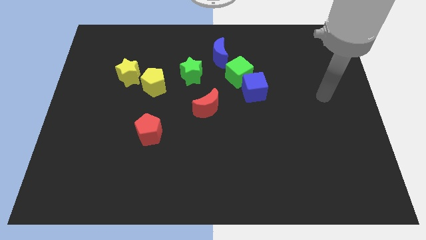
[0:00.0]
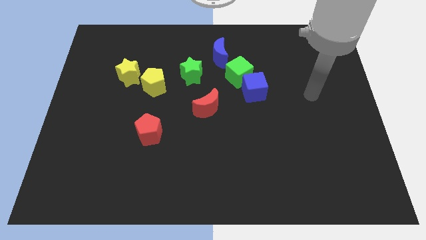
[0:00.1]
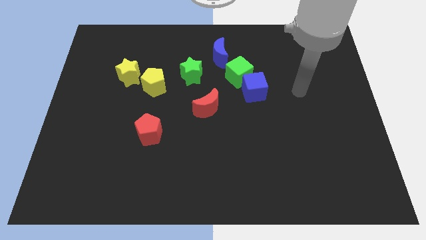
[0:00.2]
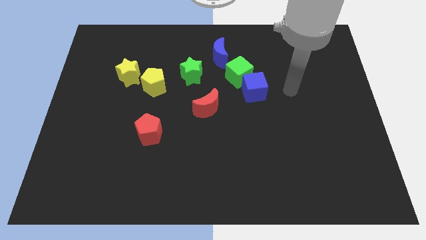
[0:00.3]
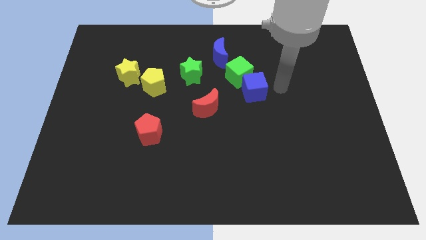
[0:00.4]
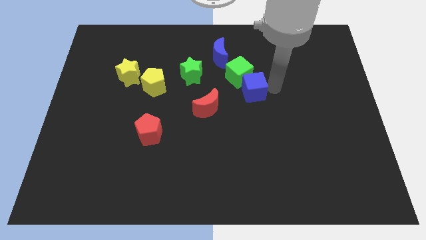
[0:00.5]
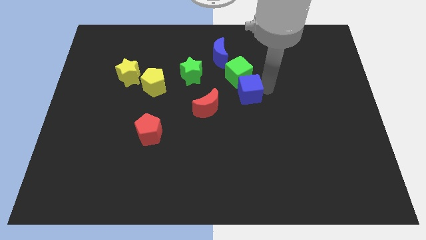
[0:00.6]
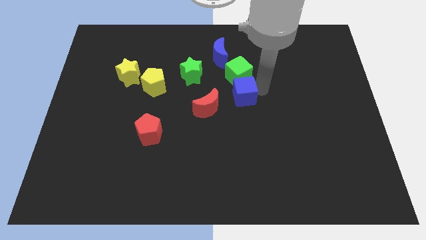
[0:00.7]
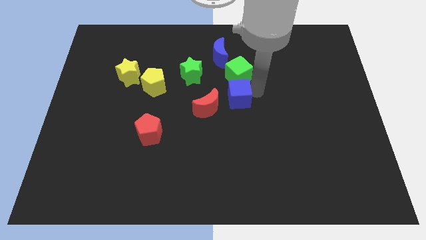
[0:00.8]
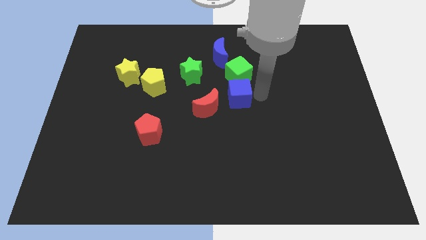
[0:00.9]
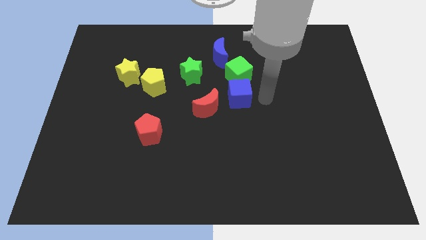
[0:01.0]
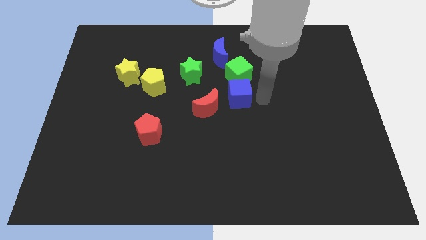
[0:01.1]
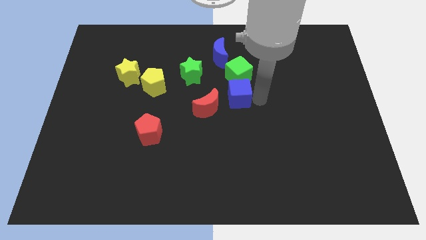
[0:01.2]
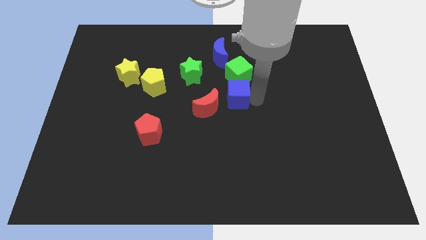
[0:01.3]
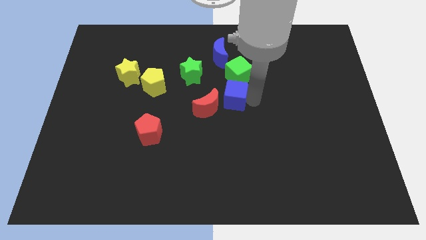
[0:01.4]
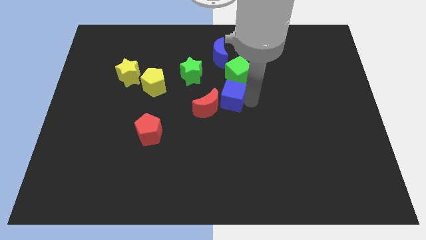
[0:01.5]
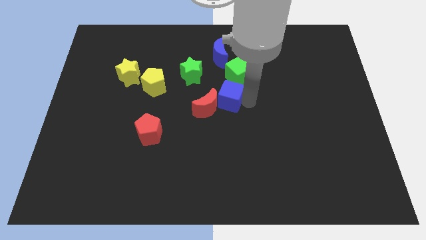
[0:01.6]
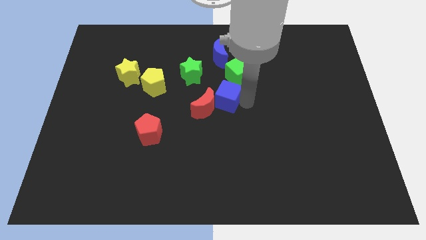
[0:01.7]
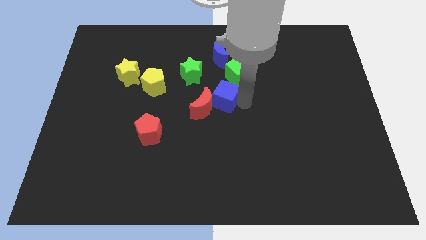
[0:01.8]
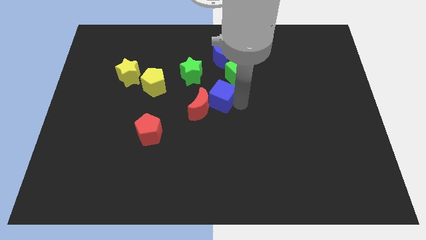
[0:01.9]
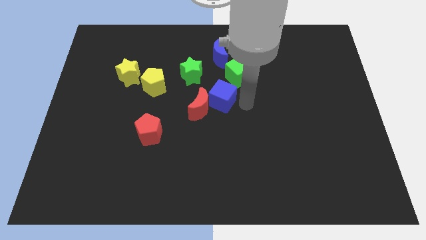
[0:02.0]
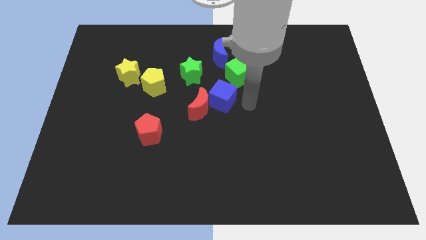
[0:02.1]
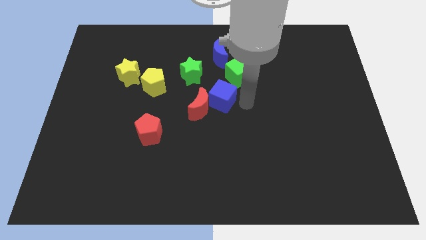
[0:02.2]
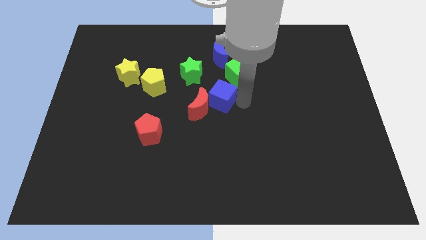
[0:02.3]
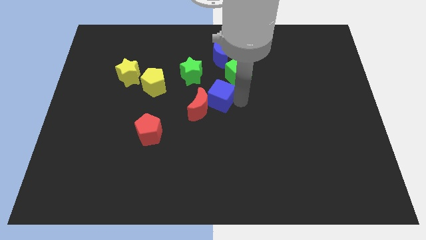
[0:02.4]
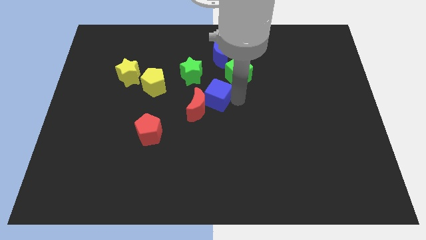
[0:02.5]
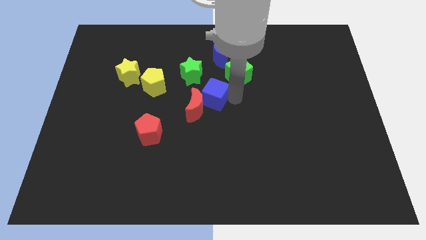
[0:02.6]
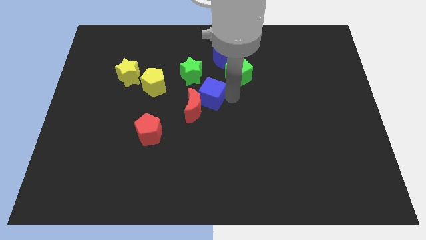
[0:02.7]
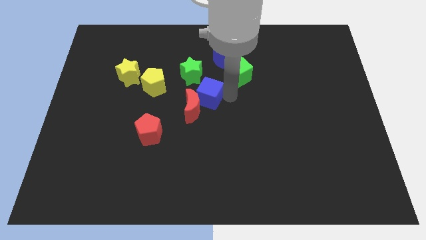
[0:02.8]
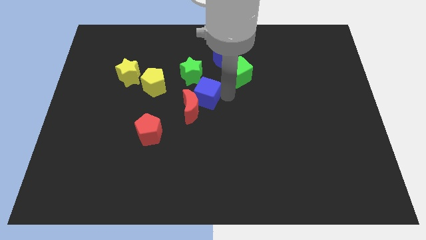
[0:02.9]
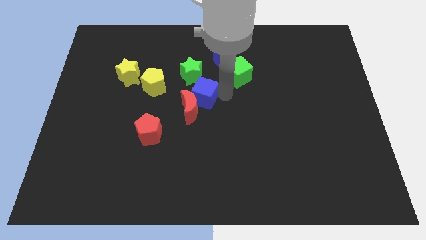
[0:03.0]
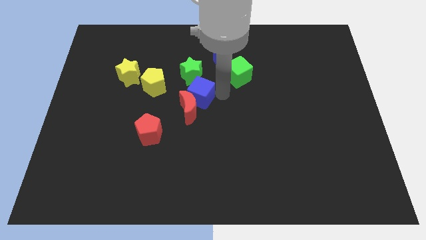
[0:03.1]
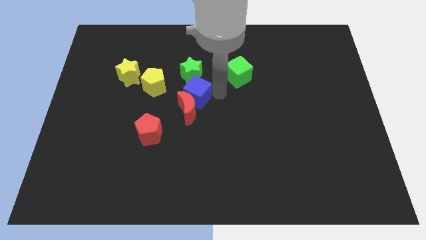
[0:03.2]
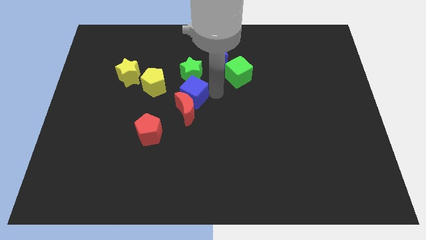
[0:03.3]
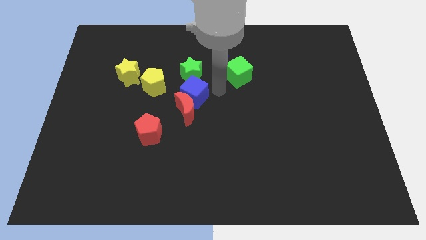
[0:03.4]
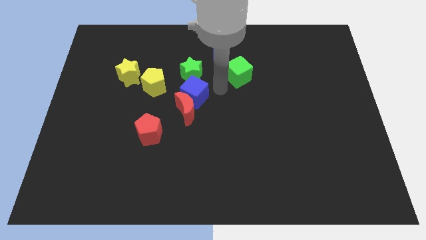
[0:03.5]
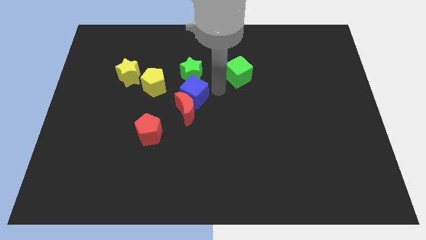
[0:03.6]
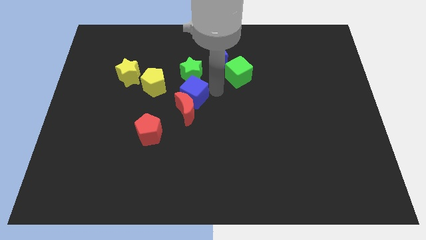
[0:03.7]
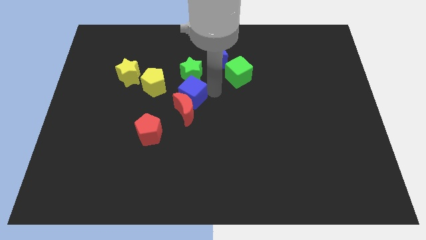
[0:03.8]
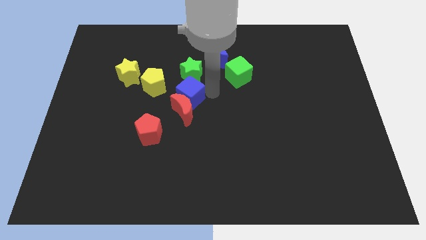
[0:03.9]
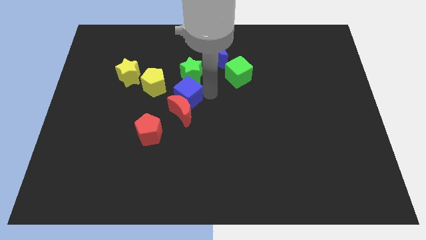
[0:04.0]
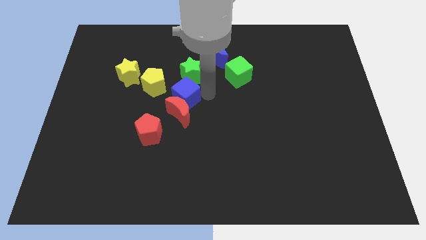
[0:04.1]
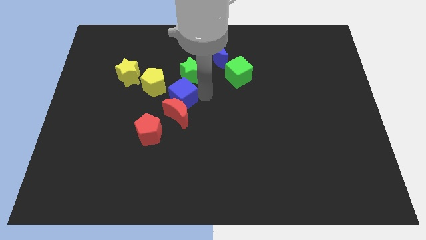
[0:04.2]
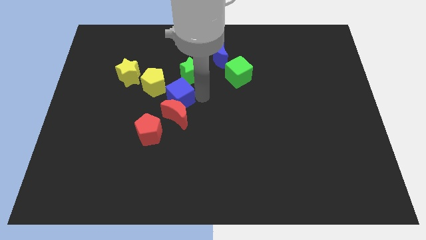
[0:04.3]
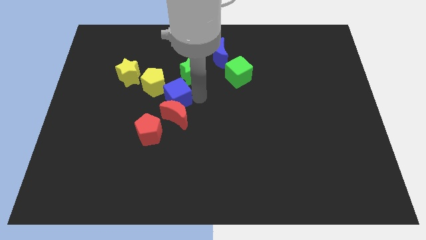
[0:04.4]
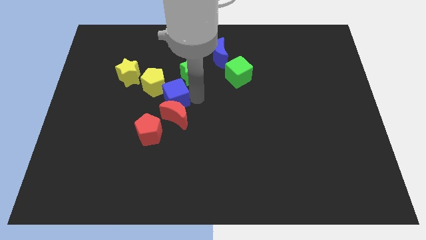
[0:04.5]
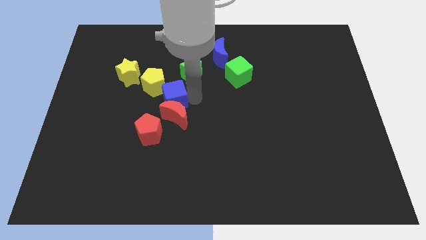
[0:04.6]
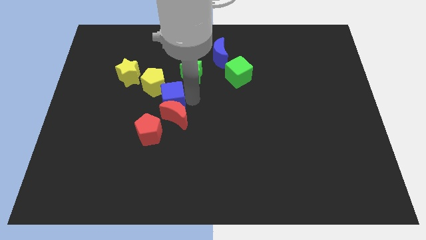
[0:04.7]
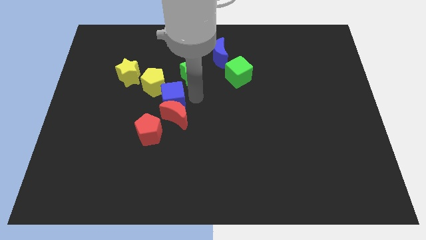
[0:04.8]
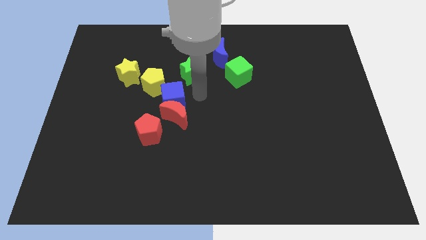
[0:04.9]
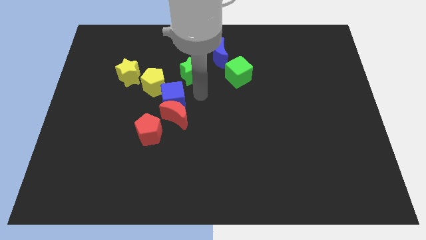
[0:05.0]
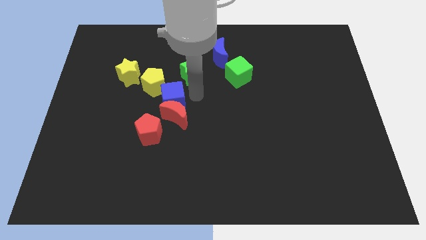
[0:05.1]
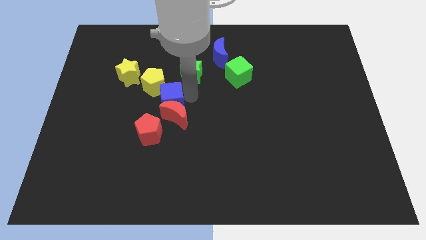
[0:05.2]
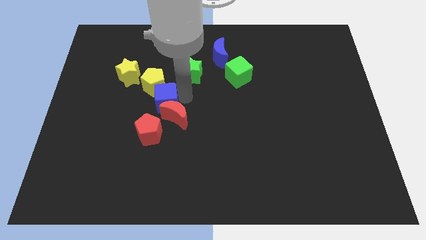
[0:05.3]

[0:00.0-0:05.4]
push the blue cube to the left

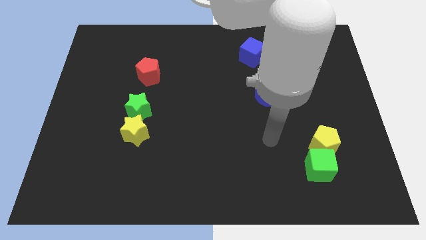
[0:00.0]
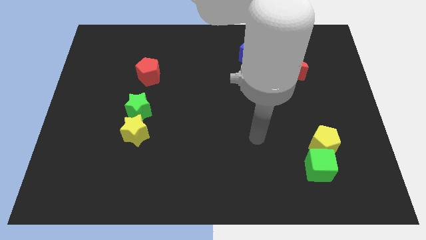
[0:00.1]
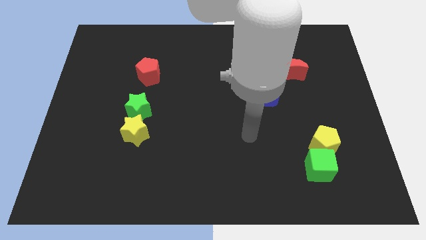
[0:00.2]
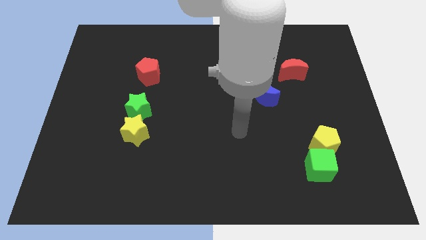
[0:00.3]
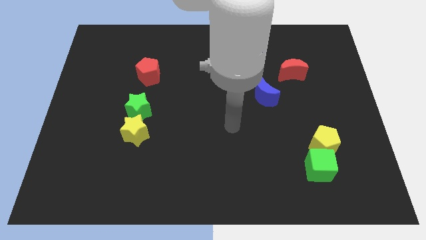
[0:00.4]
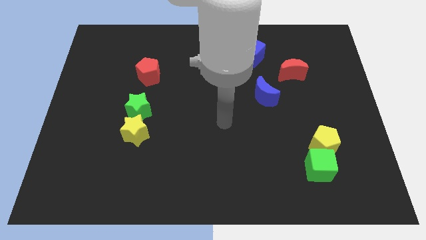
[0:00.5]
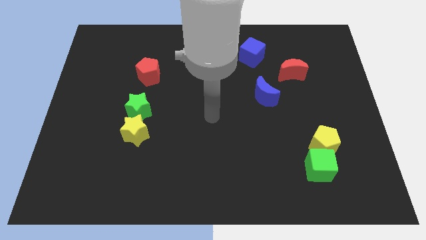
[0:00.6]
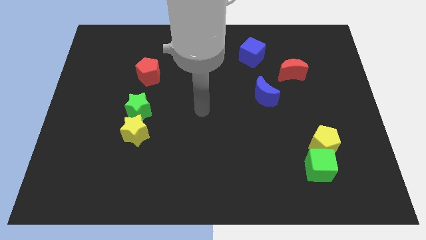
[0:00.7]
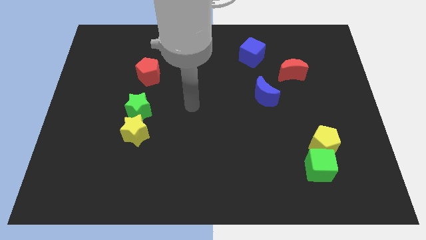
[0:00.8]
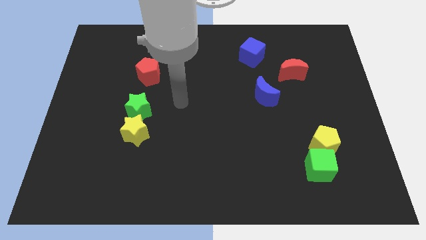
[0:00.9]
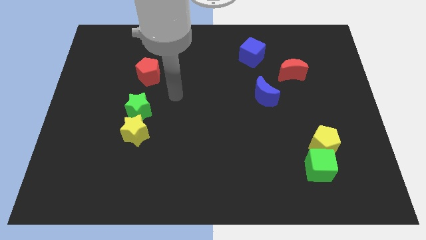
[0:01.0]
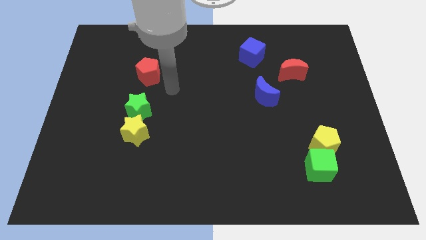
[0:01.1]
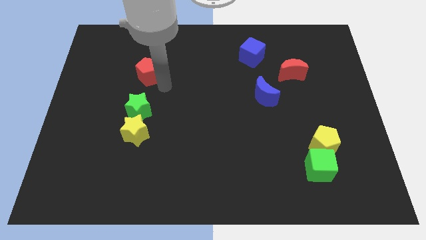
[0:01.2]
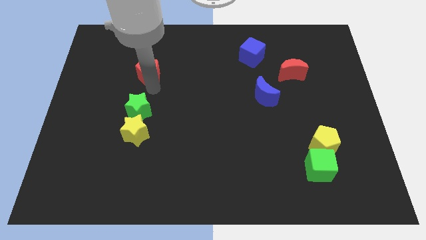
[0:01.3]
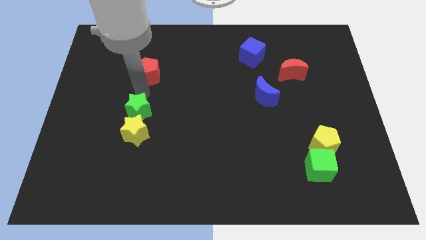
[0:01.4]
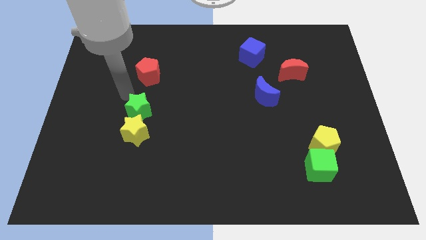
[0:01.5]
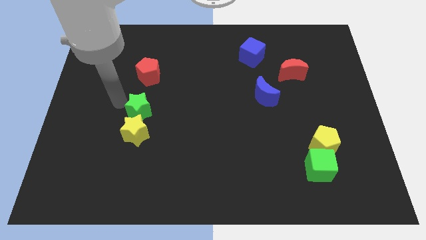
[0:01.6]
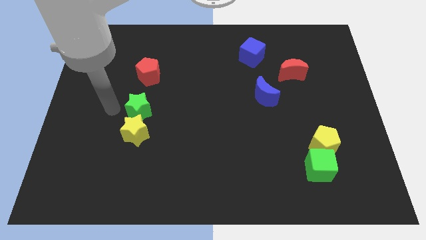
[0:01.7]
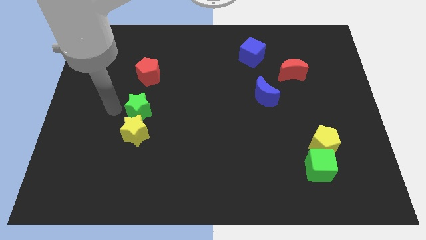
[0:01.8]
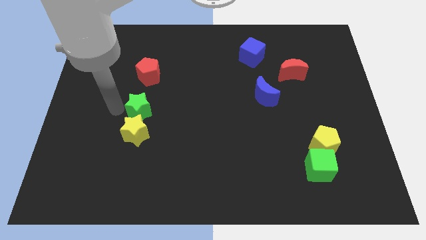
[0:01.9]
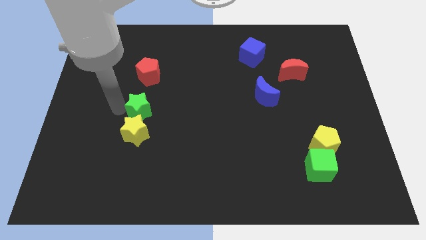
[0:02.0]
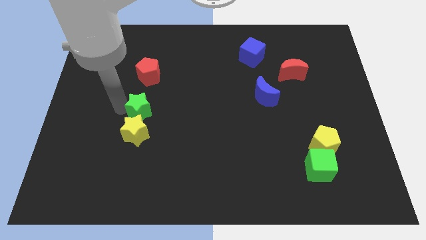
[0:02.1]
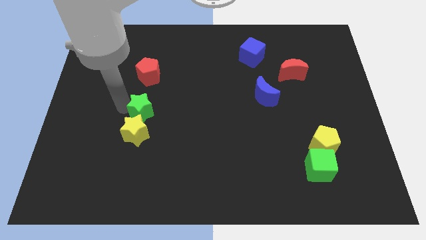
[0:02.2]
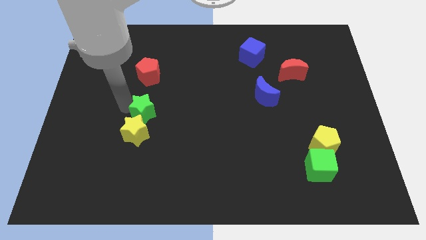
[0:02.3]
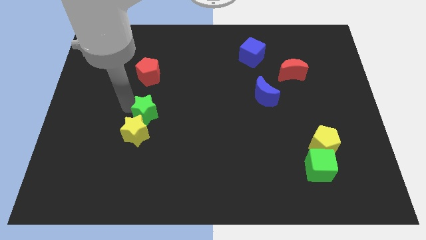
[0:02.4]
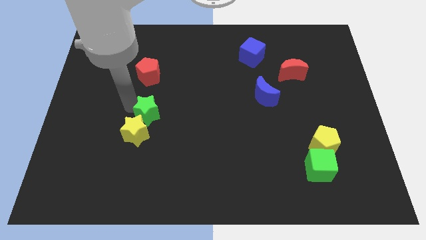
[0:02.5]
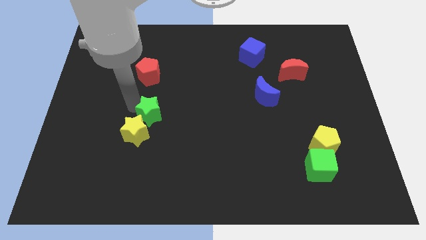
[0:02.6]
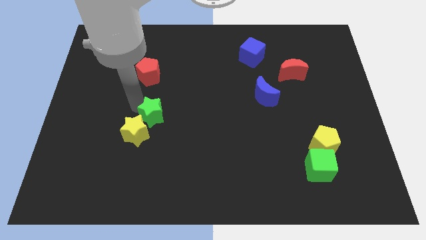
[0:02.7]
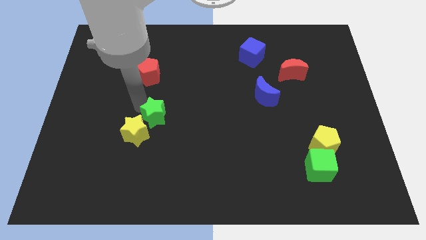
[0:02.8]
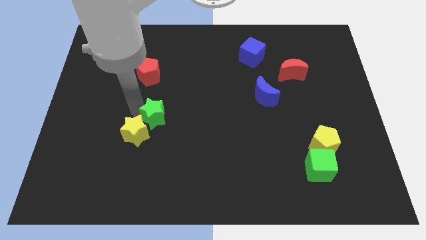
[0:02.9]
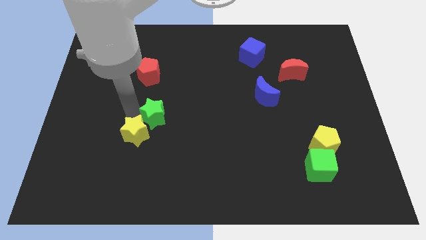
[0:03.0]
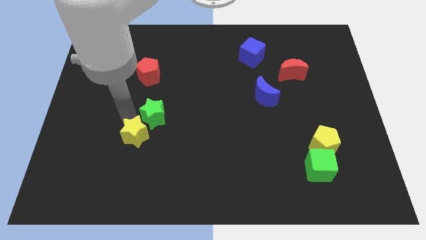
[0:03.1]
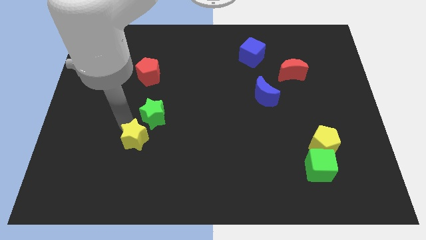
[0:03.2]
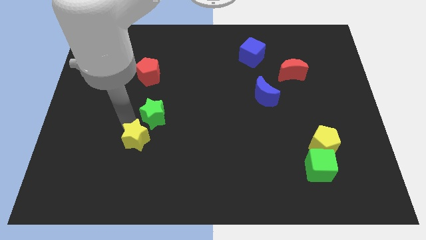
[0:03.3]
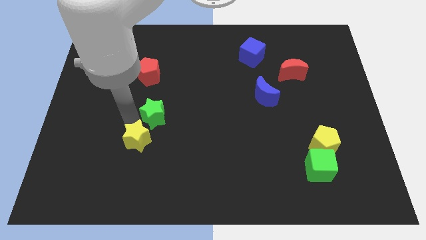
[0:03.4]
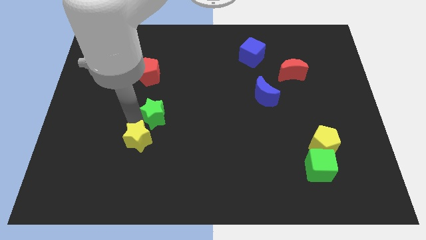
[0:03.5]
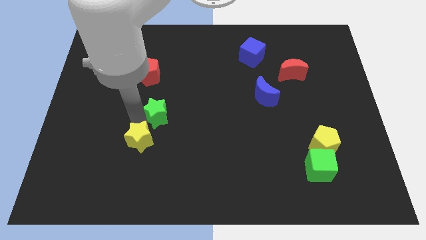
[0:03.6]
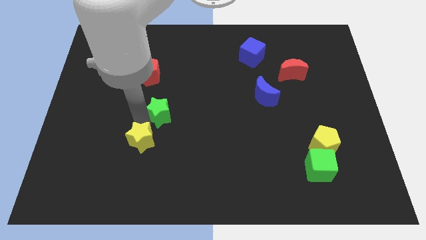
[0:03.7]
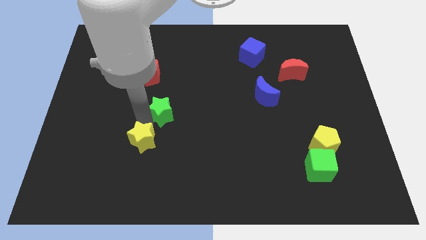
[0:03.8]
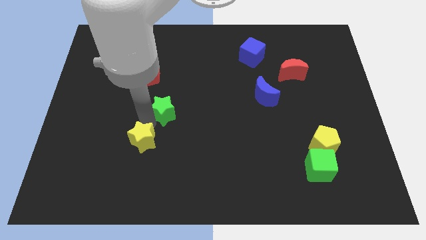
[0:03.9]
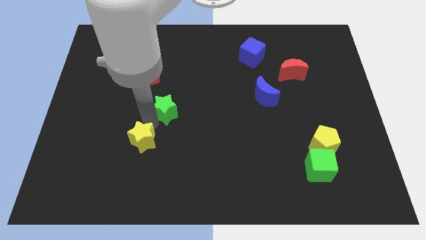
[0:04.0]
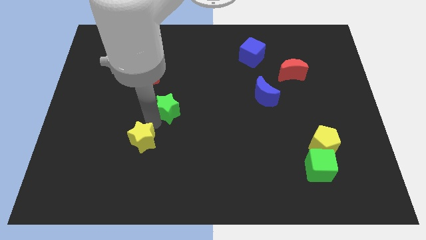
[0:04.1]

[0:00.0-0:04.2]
push the green star a little to the right
